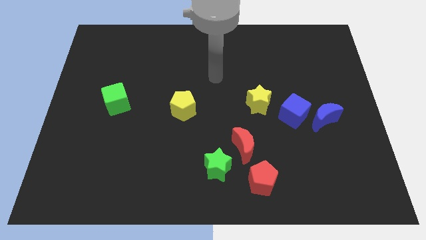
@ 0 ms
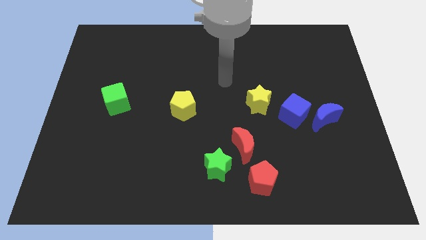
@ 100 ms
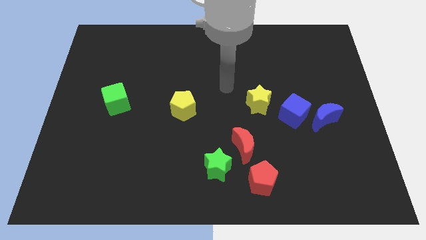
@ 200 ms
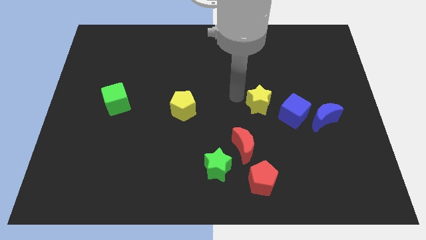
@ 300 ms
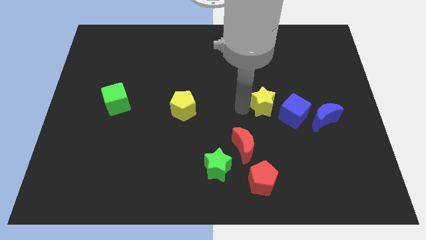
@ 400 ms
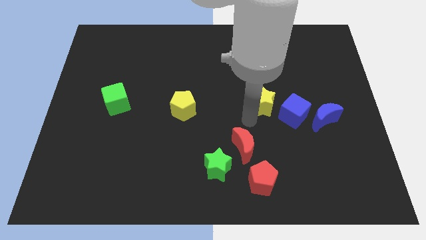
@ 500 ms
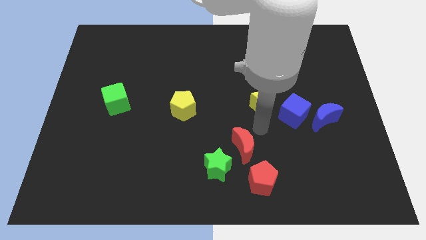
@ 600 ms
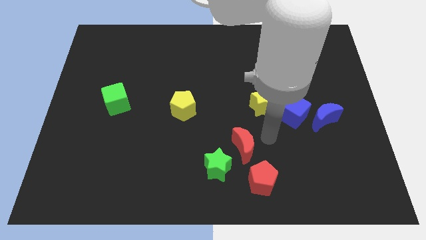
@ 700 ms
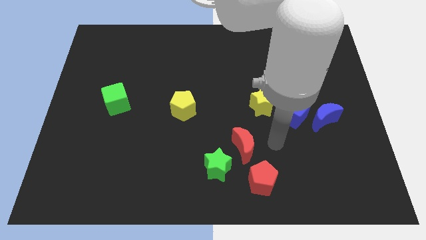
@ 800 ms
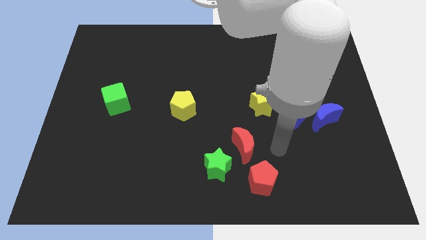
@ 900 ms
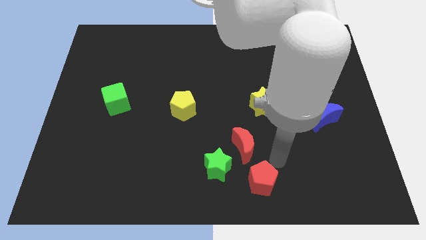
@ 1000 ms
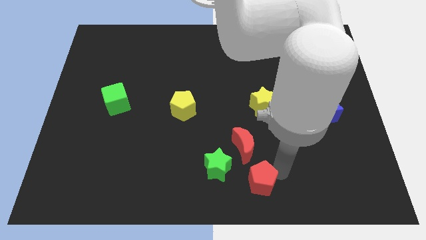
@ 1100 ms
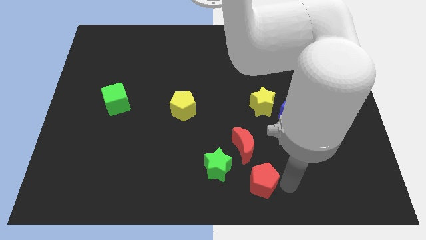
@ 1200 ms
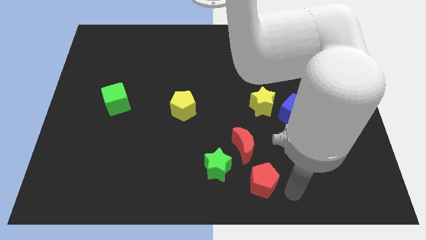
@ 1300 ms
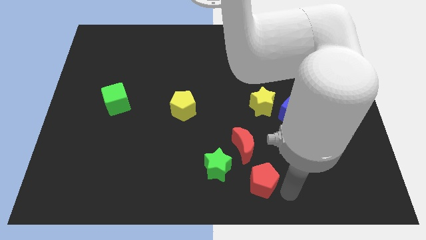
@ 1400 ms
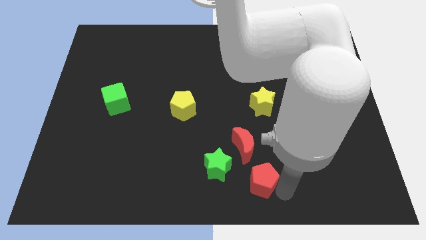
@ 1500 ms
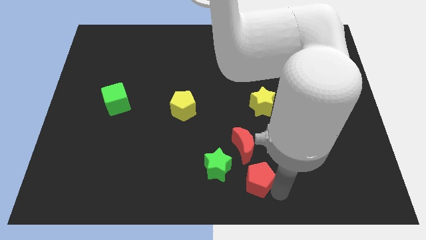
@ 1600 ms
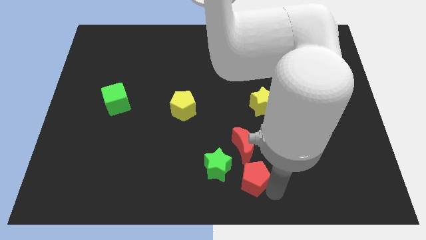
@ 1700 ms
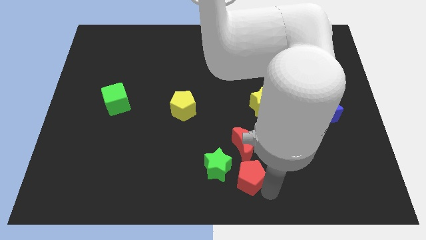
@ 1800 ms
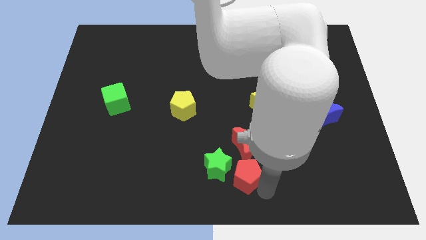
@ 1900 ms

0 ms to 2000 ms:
put the red pentagon next to the green star

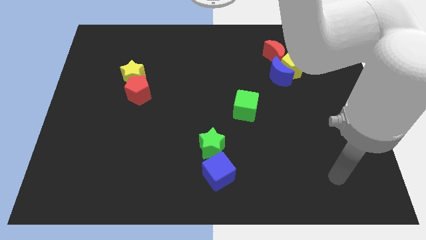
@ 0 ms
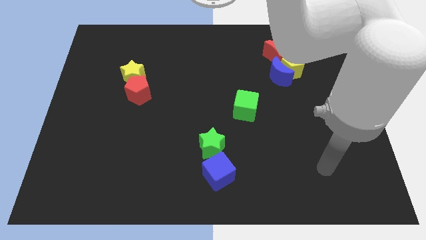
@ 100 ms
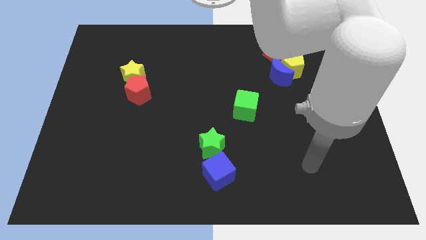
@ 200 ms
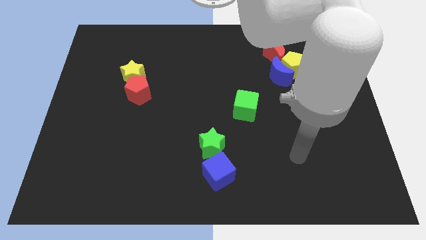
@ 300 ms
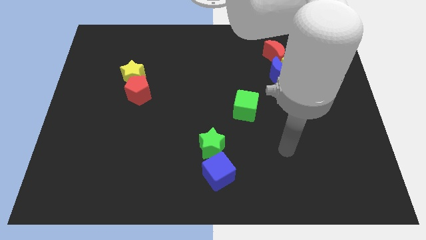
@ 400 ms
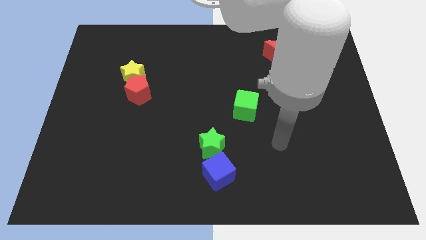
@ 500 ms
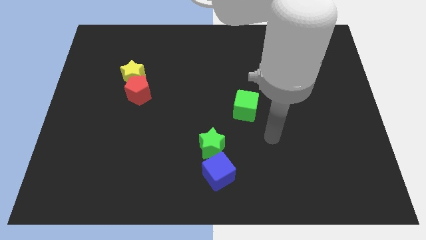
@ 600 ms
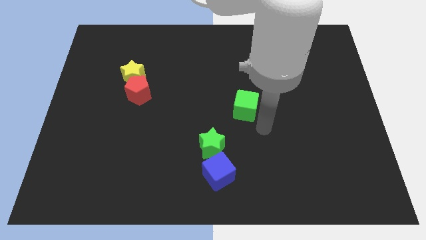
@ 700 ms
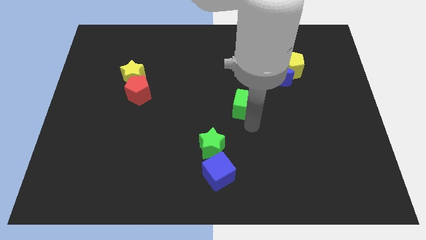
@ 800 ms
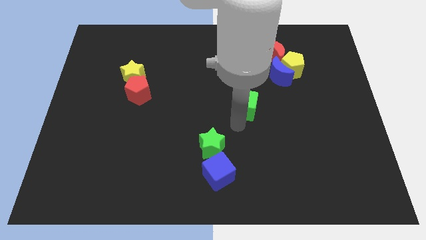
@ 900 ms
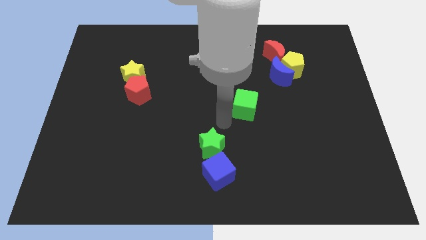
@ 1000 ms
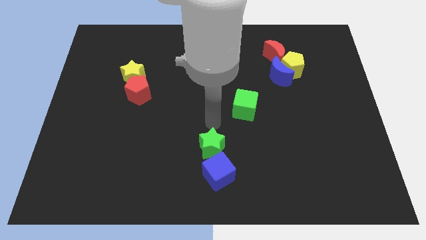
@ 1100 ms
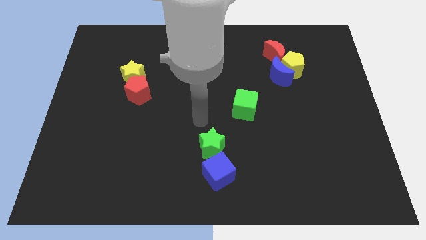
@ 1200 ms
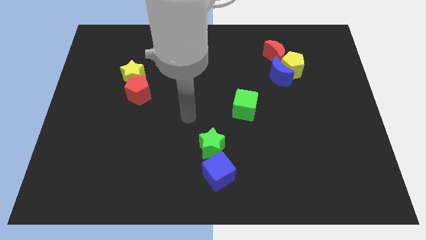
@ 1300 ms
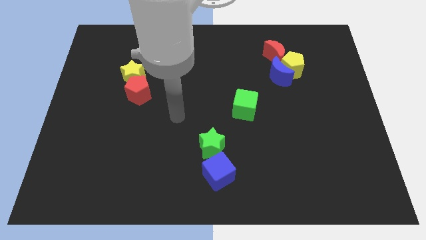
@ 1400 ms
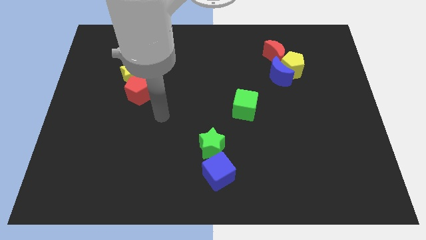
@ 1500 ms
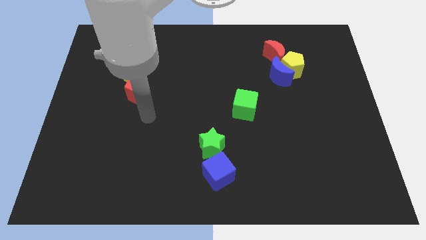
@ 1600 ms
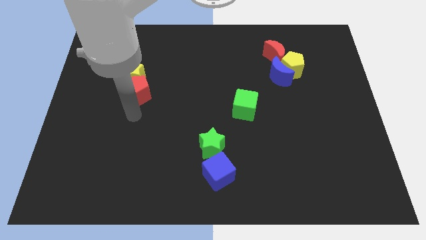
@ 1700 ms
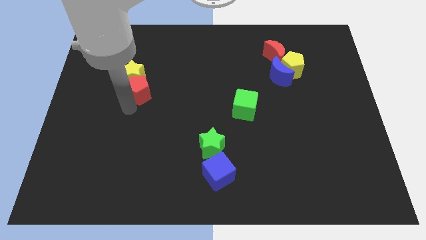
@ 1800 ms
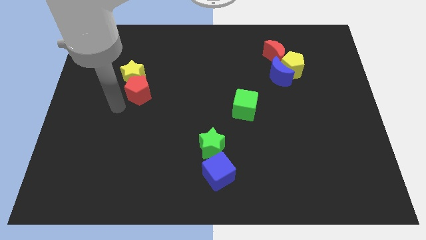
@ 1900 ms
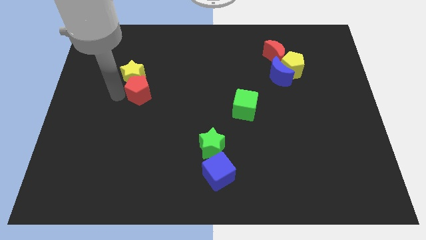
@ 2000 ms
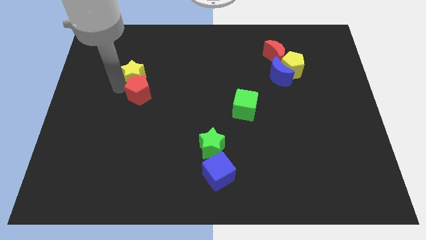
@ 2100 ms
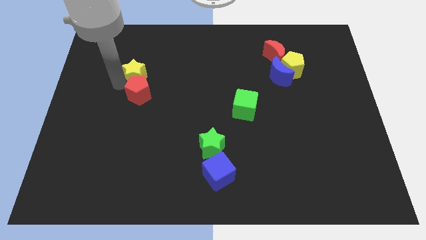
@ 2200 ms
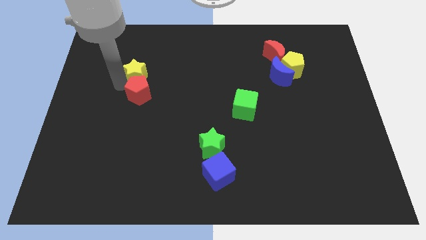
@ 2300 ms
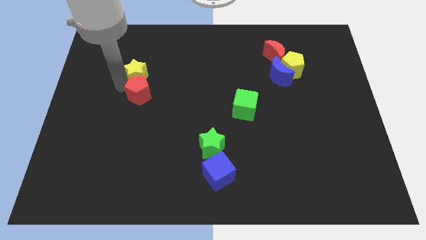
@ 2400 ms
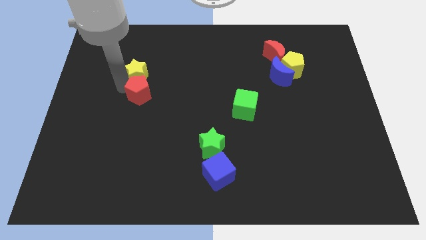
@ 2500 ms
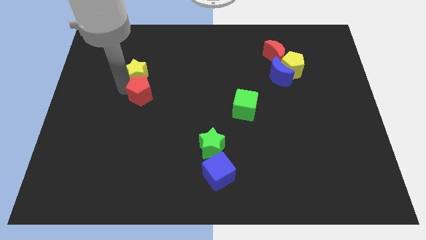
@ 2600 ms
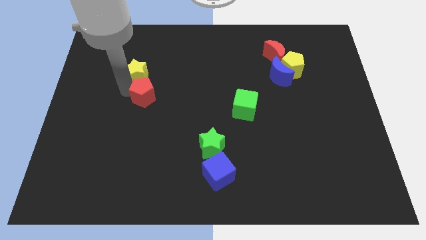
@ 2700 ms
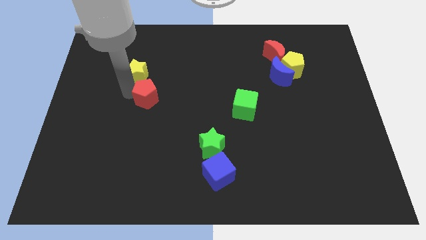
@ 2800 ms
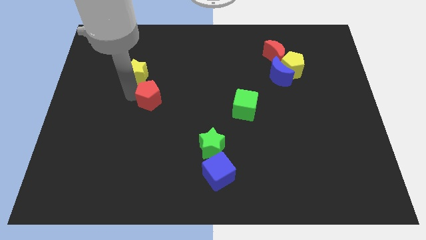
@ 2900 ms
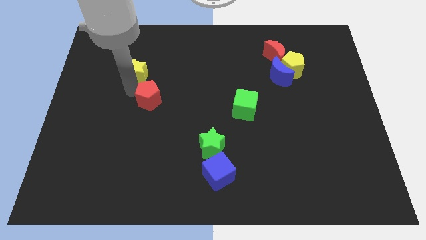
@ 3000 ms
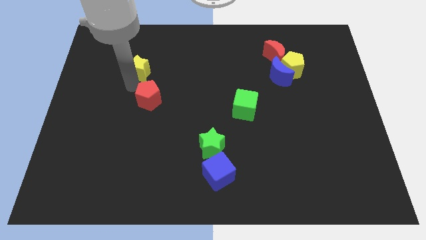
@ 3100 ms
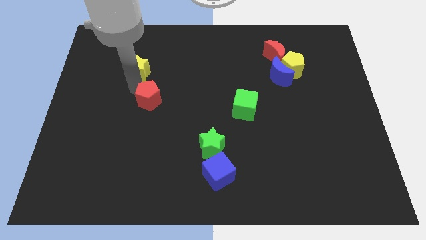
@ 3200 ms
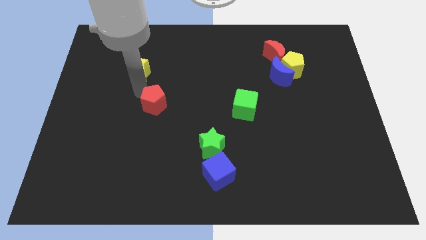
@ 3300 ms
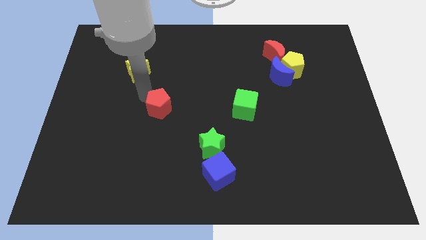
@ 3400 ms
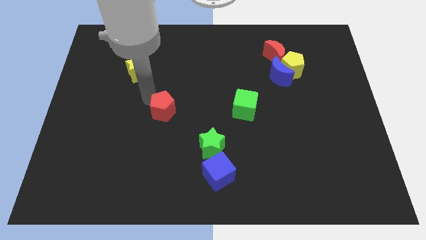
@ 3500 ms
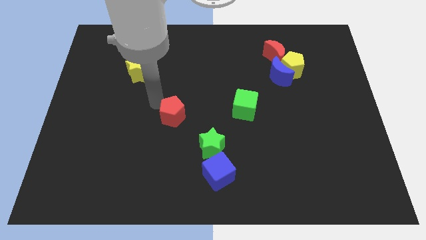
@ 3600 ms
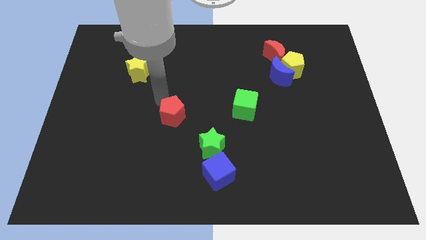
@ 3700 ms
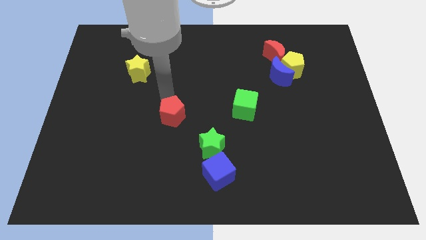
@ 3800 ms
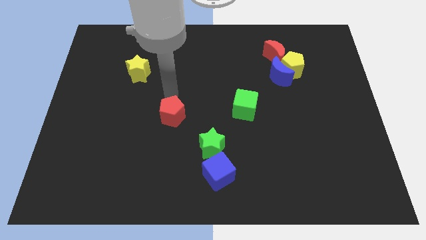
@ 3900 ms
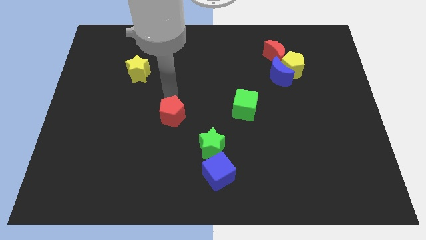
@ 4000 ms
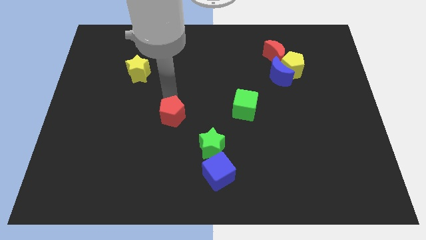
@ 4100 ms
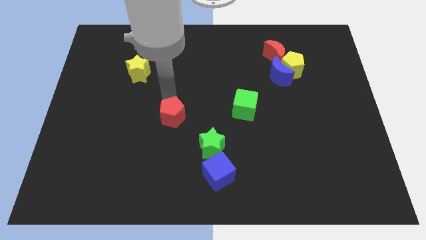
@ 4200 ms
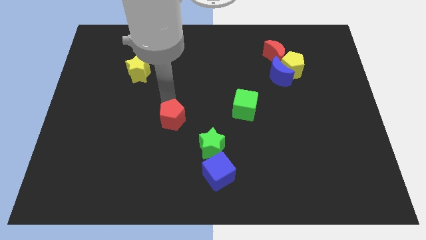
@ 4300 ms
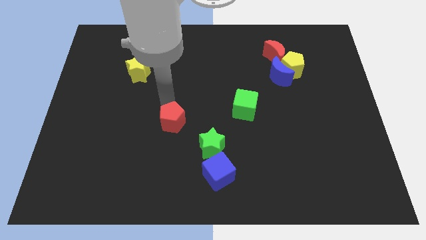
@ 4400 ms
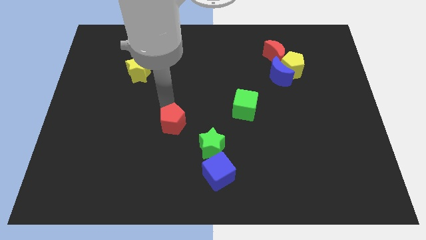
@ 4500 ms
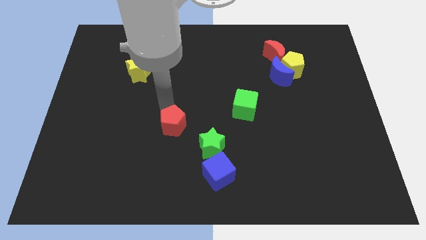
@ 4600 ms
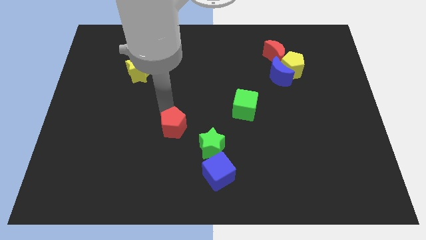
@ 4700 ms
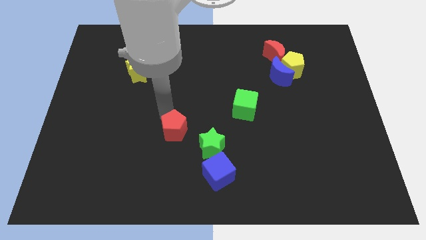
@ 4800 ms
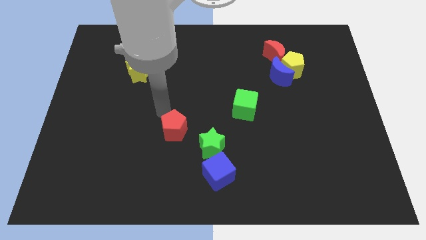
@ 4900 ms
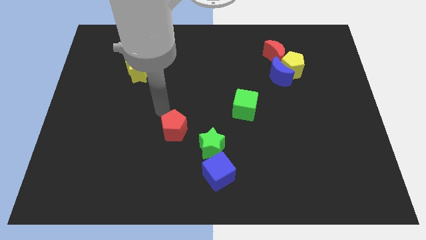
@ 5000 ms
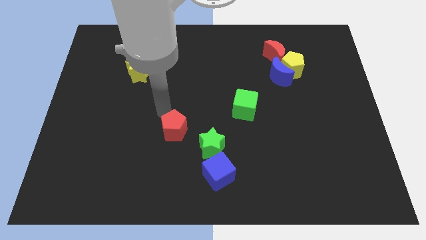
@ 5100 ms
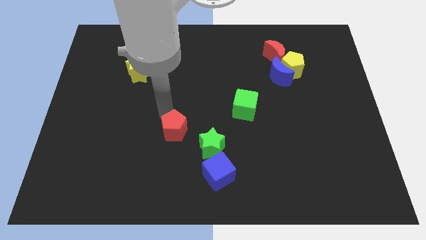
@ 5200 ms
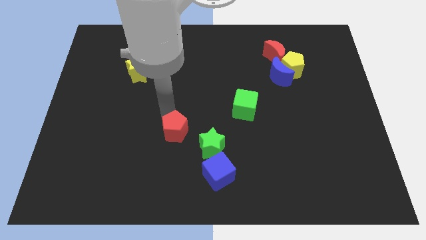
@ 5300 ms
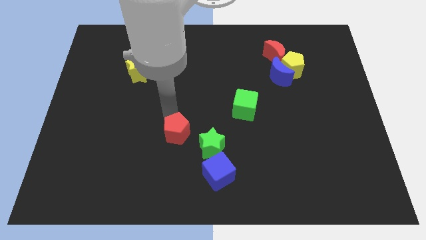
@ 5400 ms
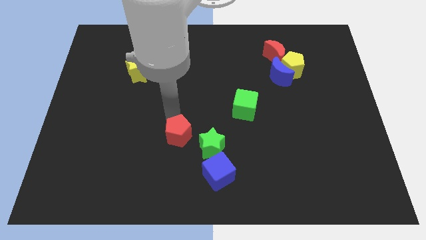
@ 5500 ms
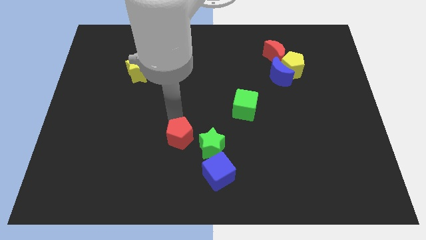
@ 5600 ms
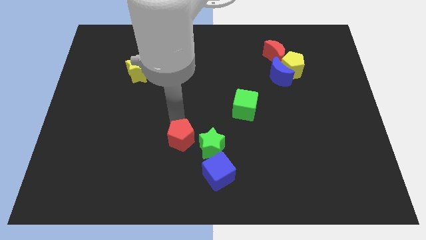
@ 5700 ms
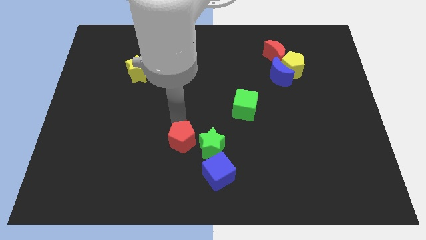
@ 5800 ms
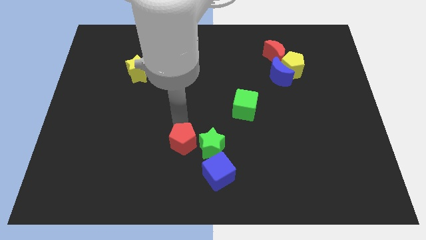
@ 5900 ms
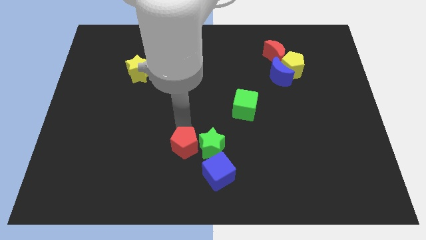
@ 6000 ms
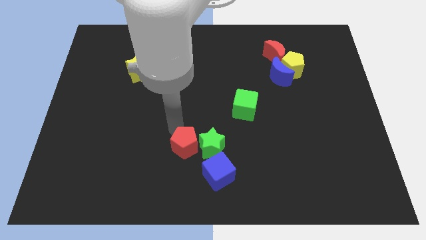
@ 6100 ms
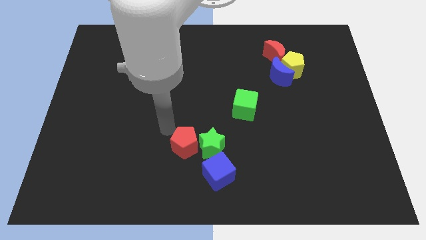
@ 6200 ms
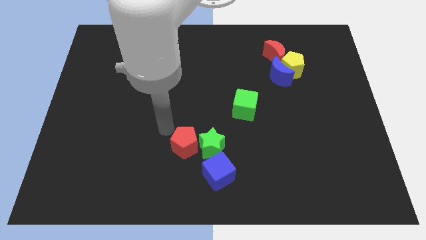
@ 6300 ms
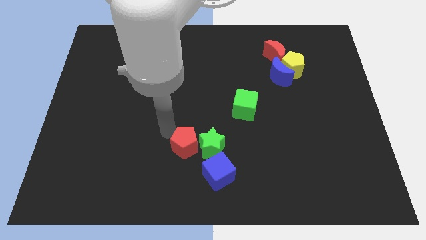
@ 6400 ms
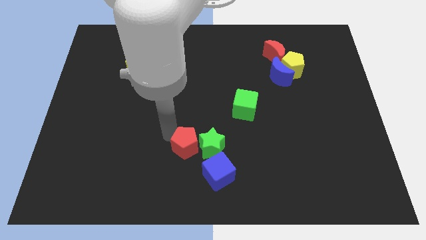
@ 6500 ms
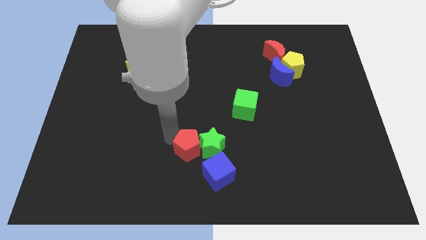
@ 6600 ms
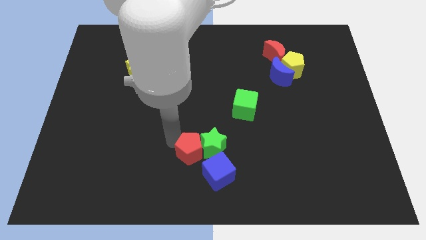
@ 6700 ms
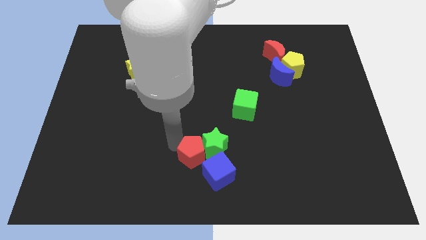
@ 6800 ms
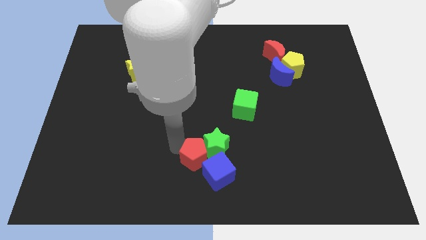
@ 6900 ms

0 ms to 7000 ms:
put the red pentagon close to the blue cube
